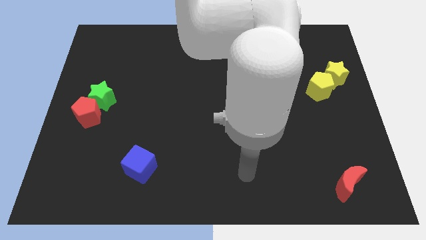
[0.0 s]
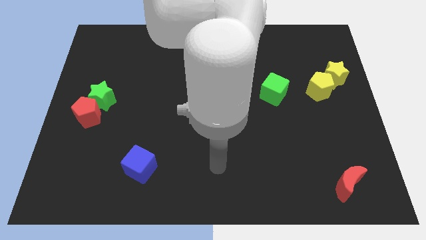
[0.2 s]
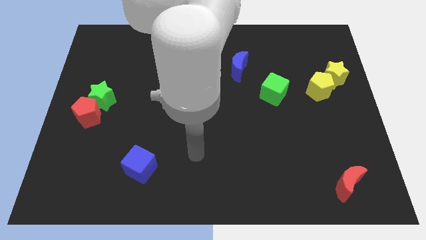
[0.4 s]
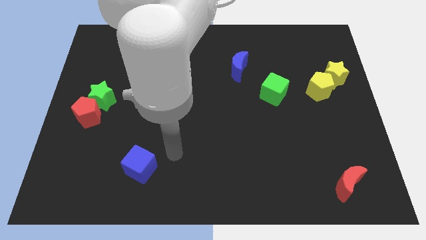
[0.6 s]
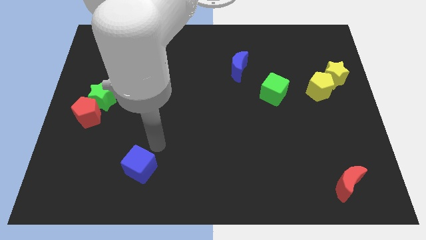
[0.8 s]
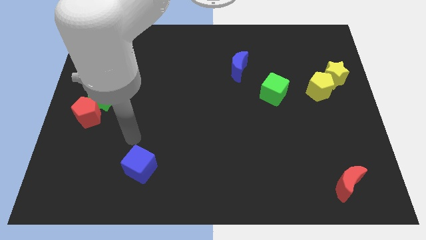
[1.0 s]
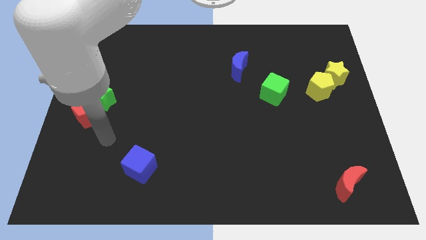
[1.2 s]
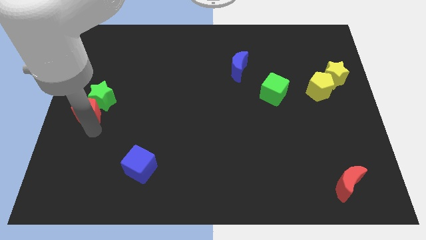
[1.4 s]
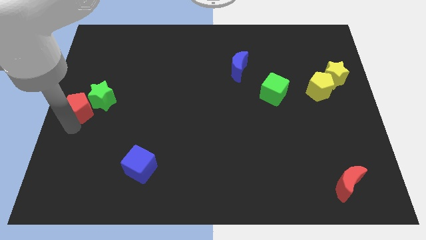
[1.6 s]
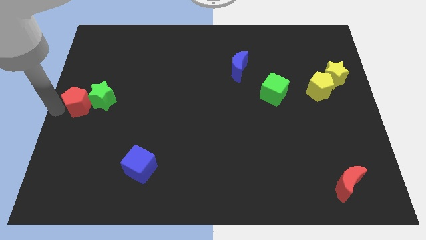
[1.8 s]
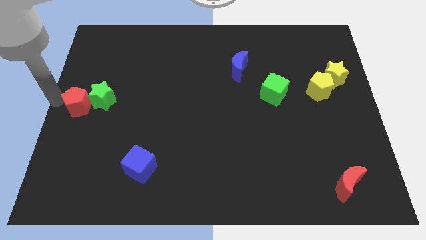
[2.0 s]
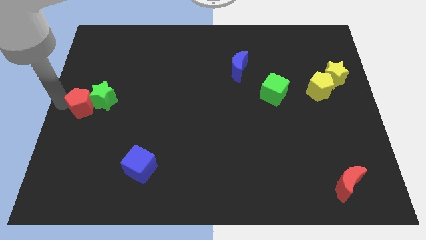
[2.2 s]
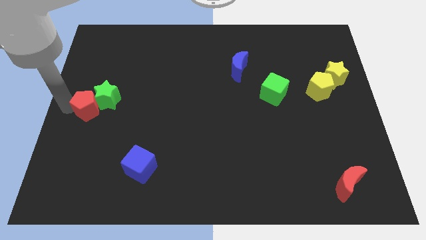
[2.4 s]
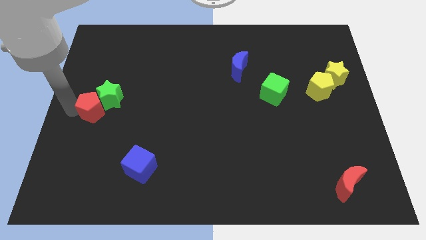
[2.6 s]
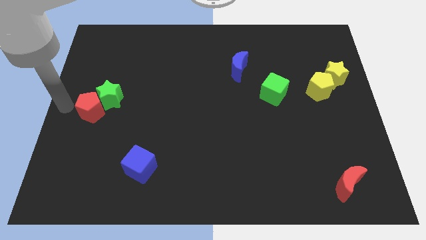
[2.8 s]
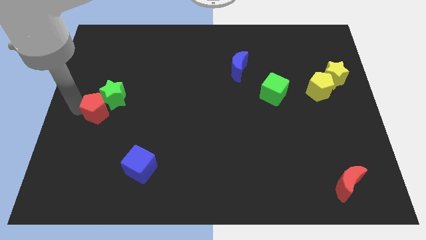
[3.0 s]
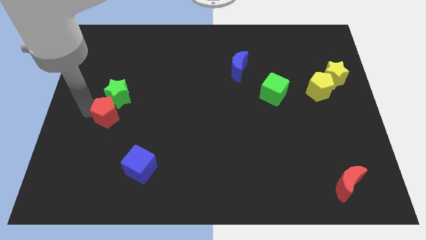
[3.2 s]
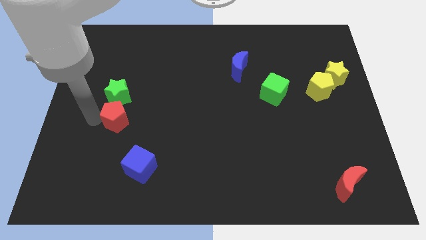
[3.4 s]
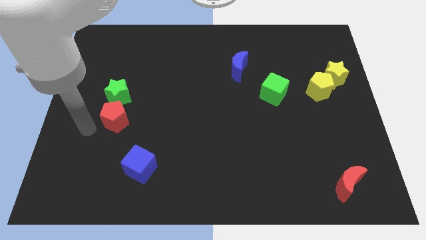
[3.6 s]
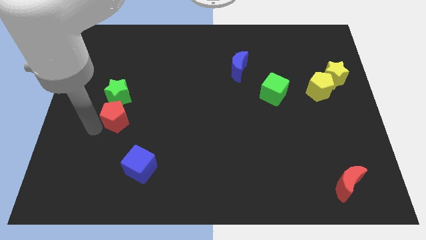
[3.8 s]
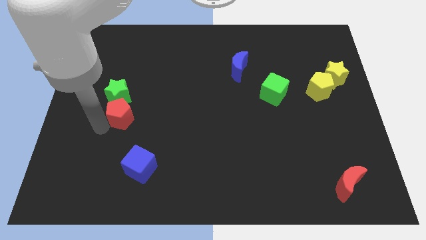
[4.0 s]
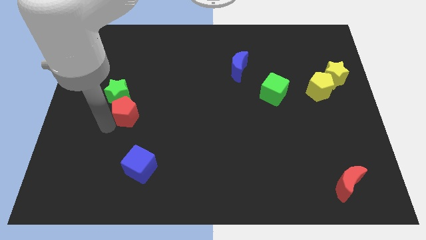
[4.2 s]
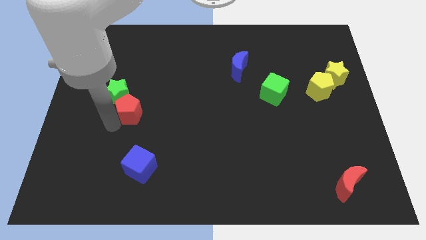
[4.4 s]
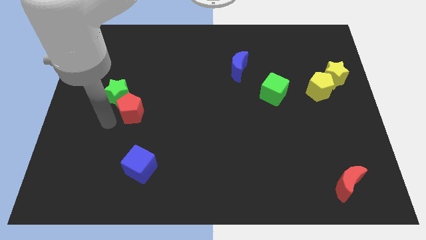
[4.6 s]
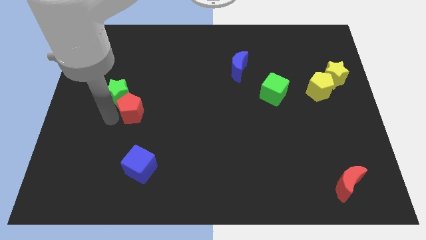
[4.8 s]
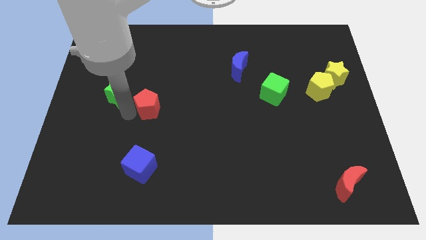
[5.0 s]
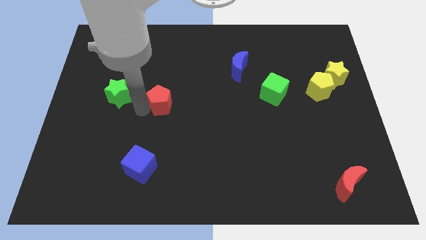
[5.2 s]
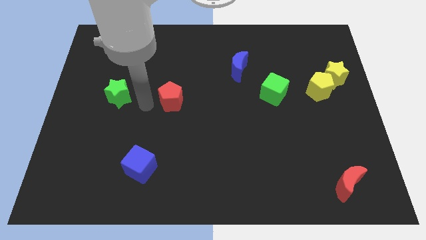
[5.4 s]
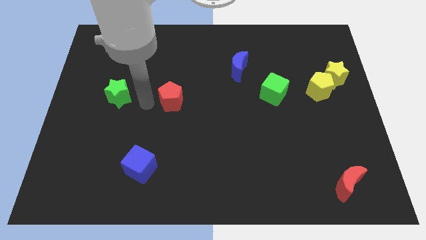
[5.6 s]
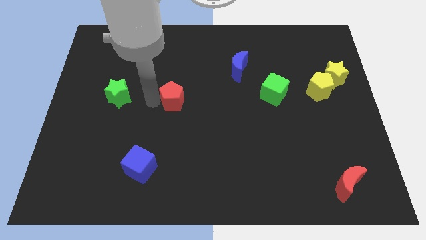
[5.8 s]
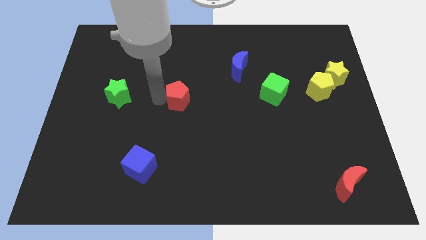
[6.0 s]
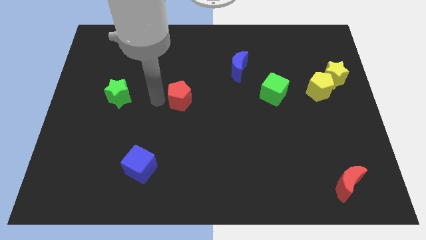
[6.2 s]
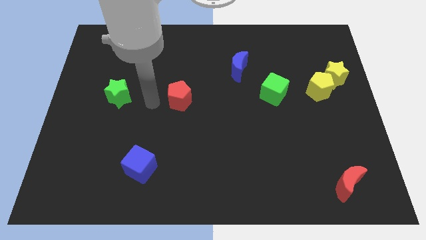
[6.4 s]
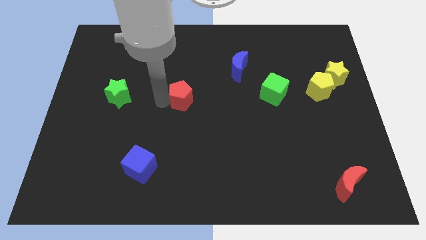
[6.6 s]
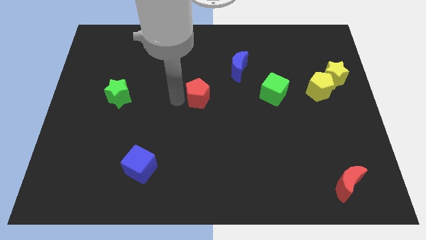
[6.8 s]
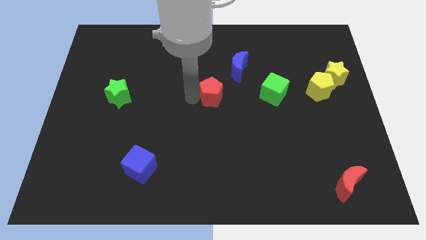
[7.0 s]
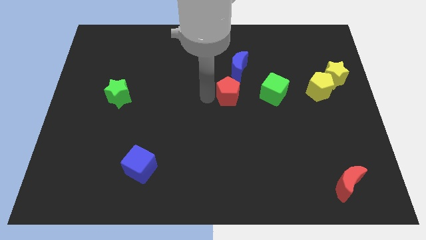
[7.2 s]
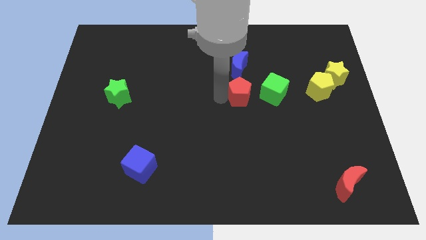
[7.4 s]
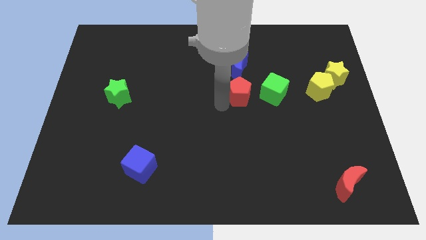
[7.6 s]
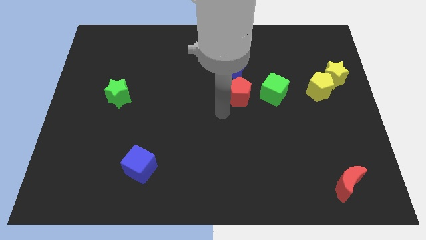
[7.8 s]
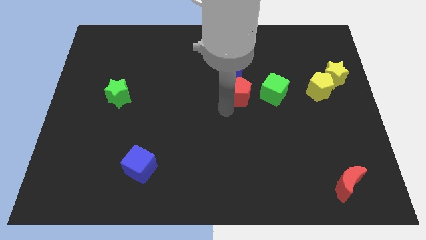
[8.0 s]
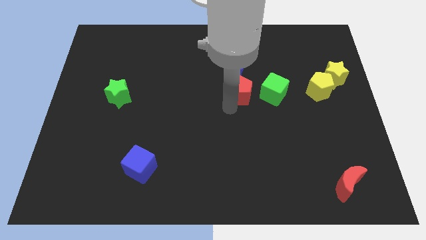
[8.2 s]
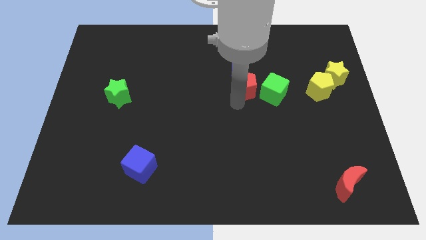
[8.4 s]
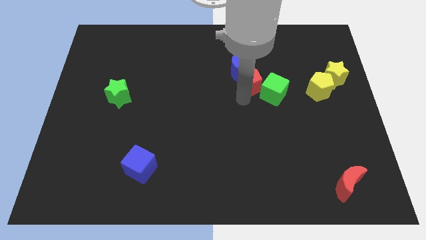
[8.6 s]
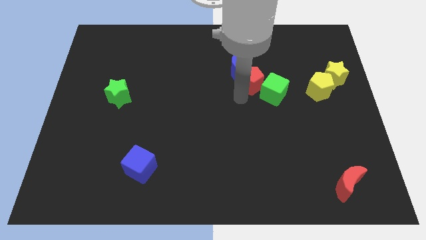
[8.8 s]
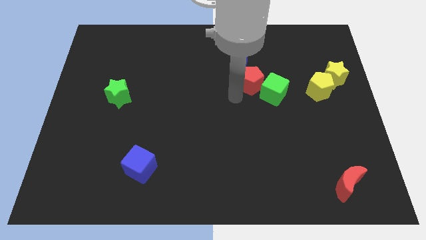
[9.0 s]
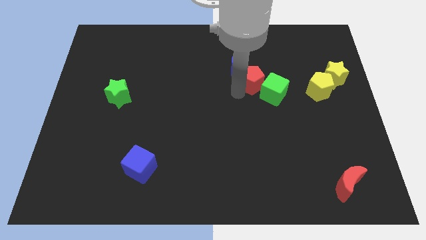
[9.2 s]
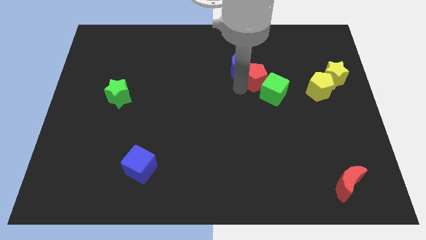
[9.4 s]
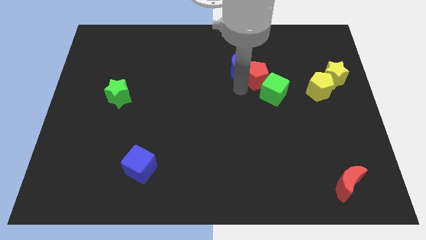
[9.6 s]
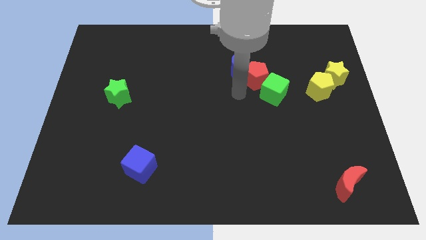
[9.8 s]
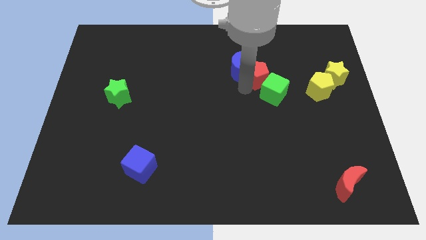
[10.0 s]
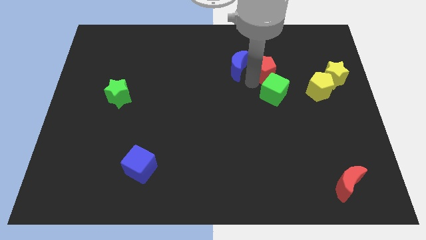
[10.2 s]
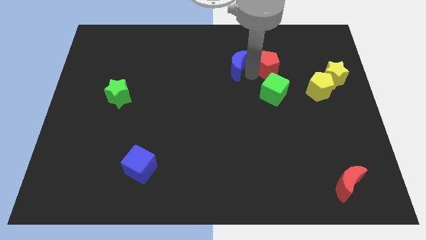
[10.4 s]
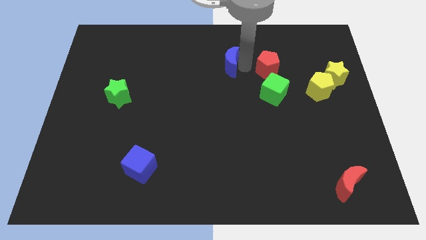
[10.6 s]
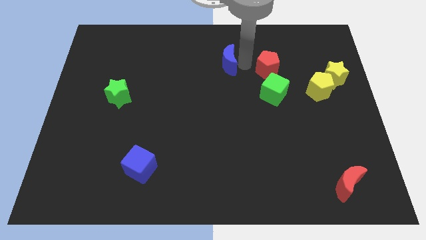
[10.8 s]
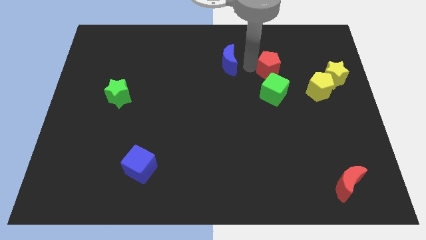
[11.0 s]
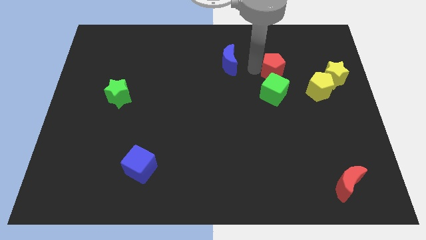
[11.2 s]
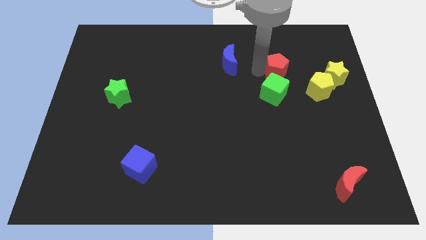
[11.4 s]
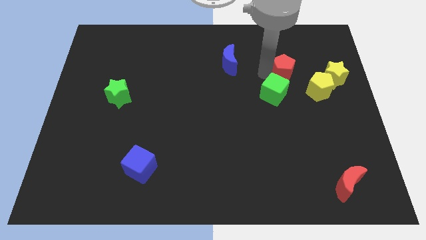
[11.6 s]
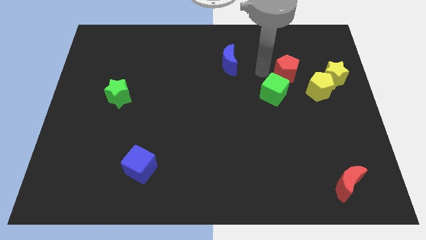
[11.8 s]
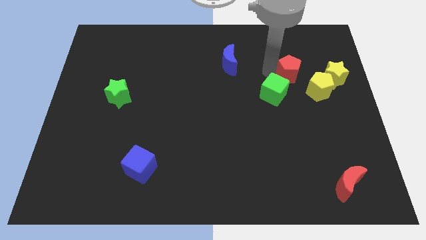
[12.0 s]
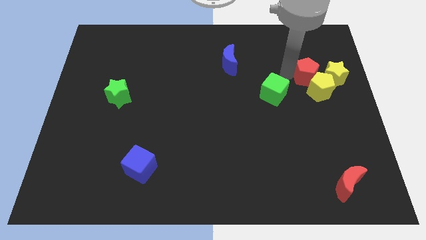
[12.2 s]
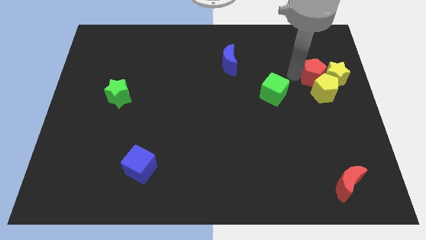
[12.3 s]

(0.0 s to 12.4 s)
put the red pentagon towards the yellow star

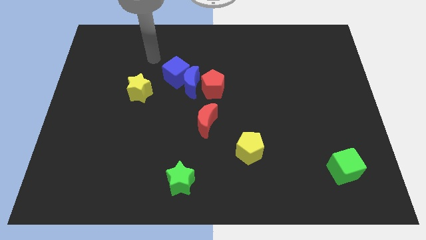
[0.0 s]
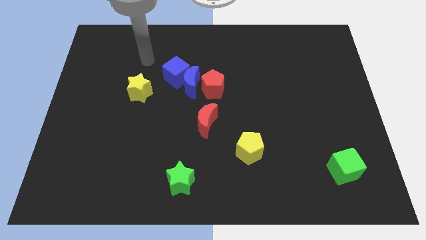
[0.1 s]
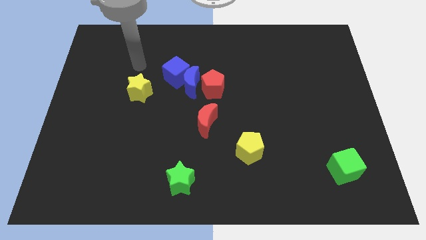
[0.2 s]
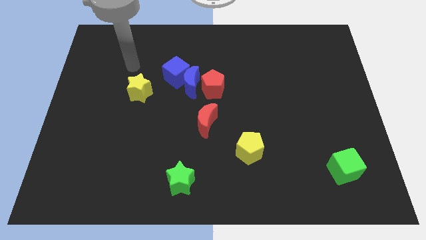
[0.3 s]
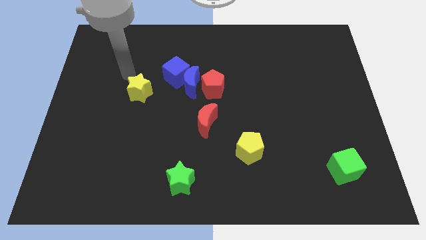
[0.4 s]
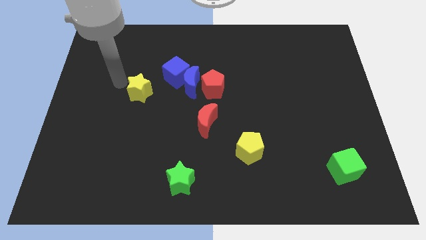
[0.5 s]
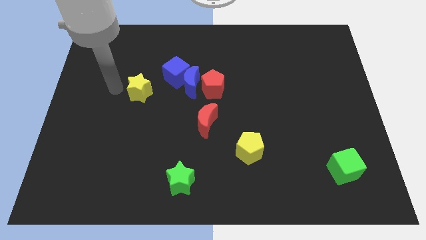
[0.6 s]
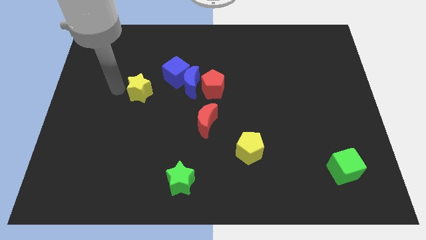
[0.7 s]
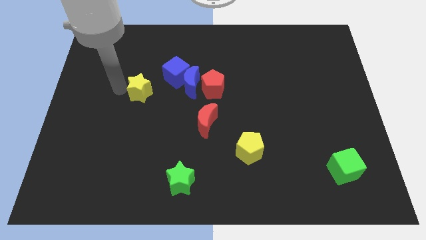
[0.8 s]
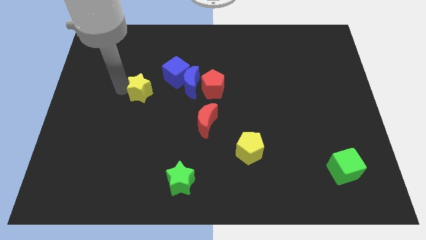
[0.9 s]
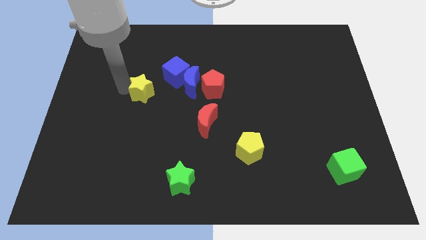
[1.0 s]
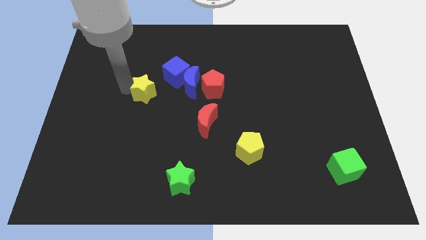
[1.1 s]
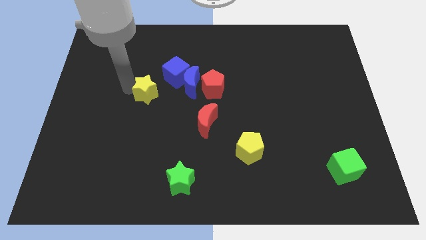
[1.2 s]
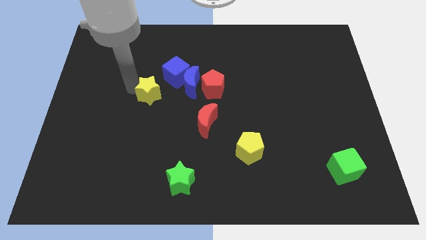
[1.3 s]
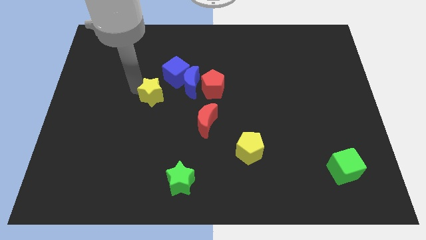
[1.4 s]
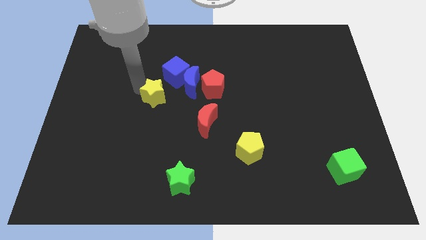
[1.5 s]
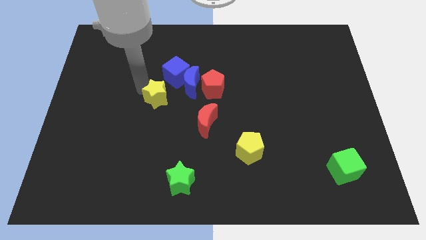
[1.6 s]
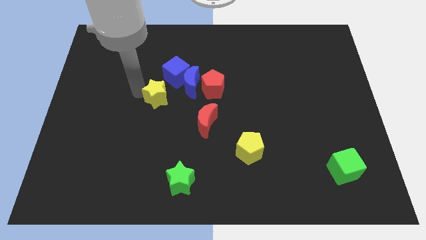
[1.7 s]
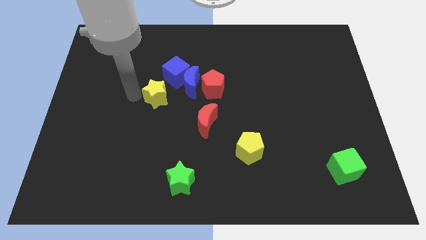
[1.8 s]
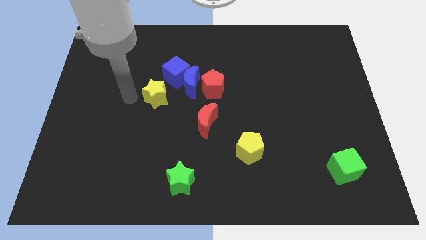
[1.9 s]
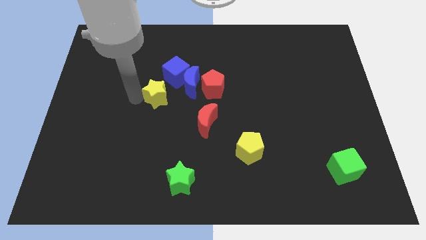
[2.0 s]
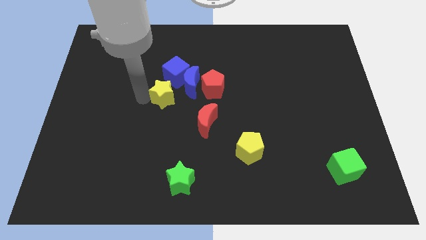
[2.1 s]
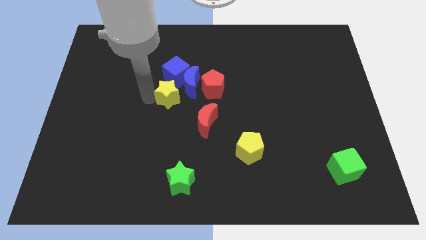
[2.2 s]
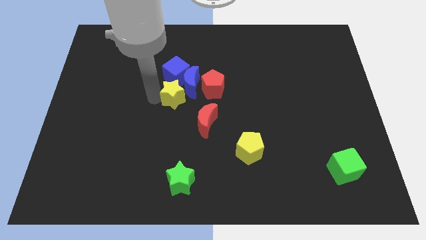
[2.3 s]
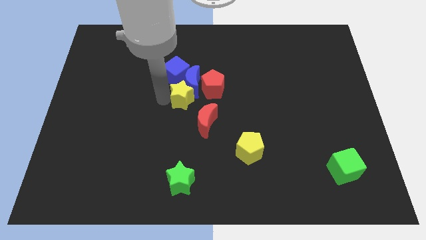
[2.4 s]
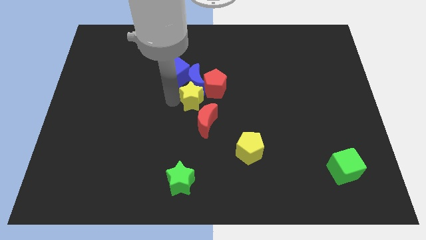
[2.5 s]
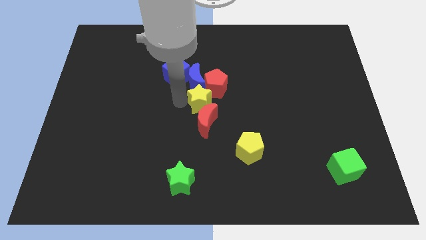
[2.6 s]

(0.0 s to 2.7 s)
put the yellow star next to the red pentagon
